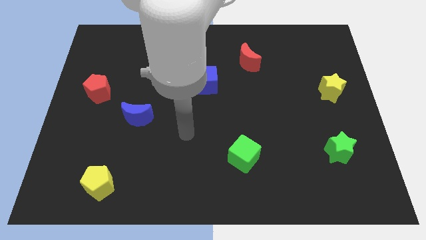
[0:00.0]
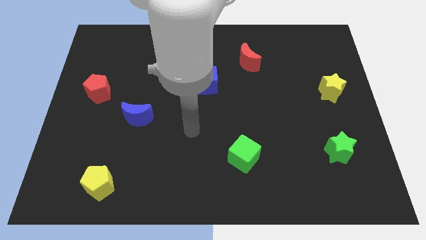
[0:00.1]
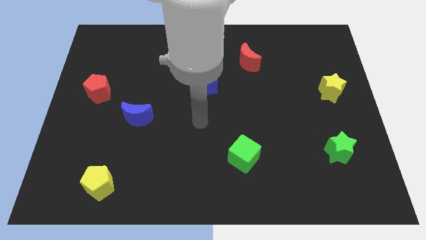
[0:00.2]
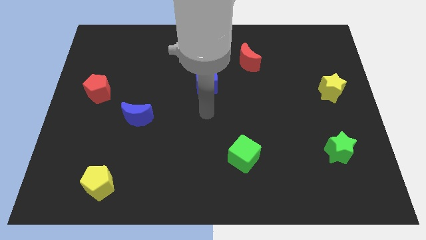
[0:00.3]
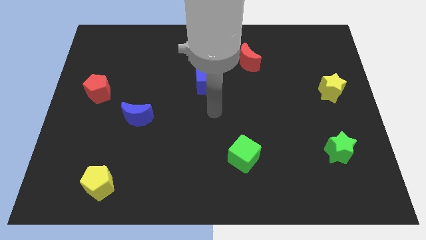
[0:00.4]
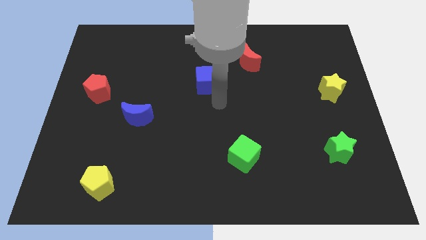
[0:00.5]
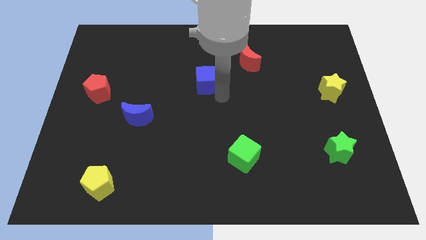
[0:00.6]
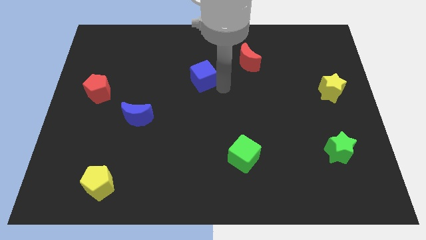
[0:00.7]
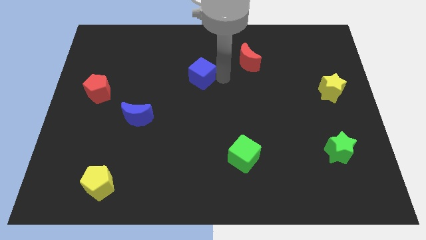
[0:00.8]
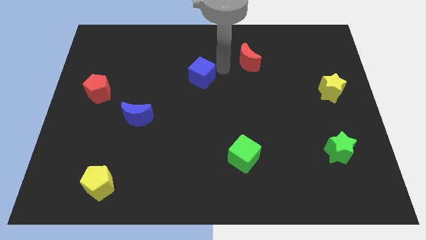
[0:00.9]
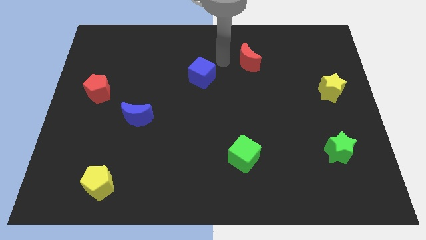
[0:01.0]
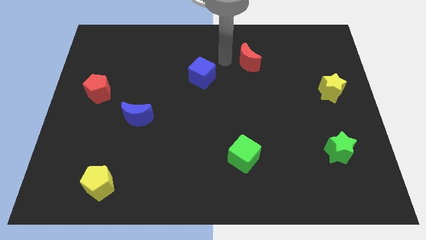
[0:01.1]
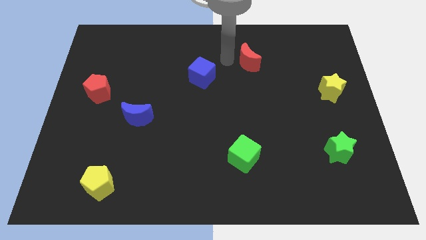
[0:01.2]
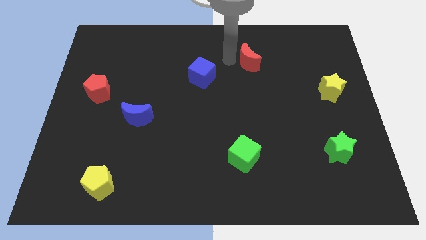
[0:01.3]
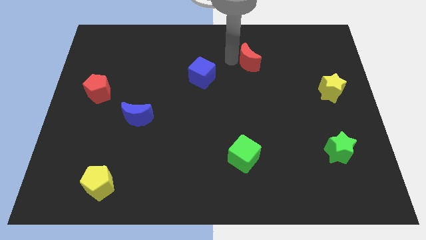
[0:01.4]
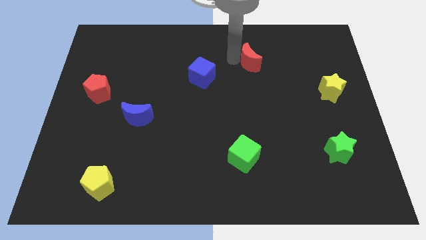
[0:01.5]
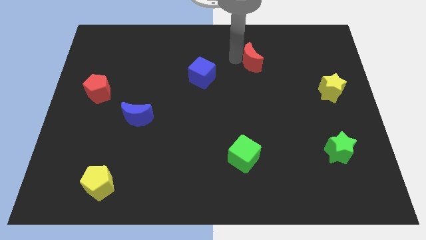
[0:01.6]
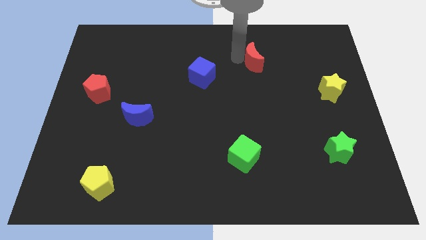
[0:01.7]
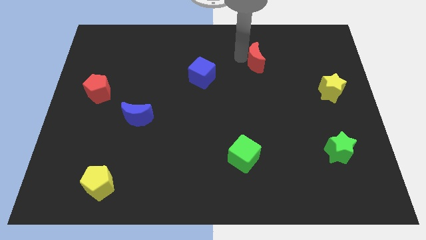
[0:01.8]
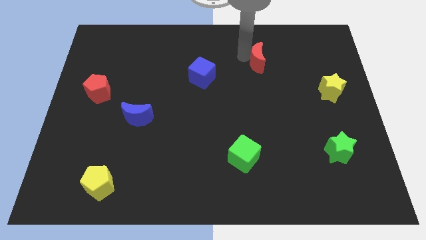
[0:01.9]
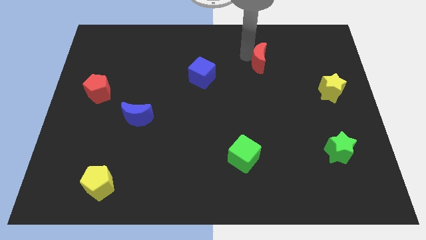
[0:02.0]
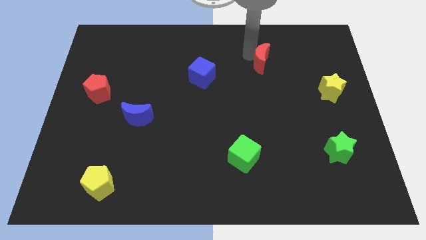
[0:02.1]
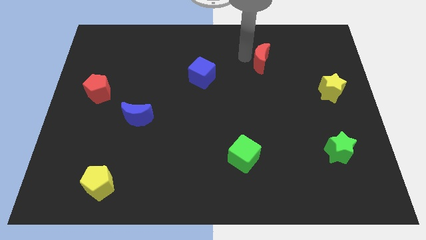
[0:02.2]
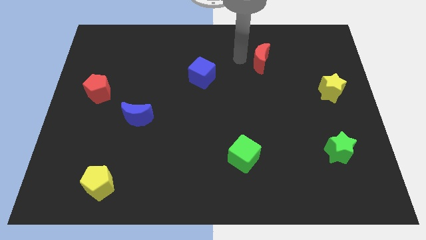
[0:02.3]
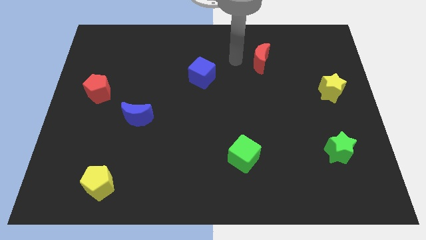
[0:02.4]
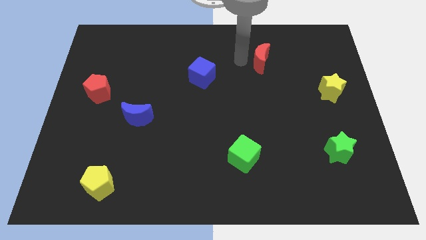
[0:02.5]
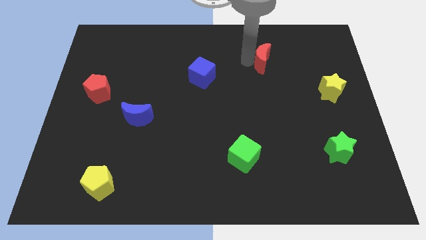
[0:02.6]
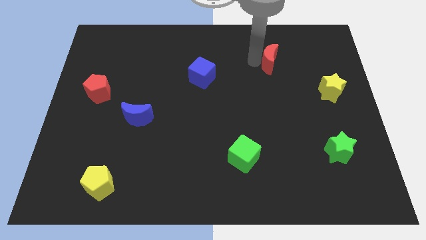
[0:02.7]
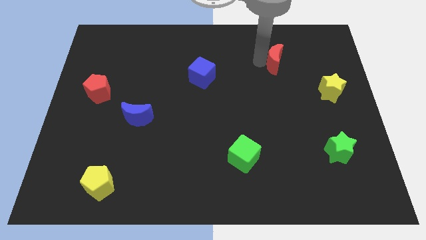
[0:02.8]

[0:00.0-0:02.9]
slide the red moon a bit to the right

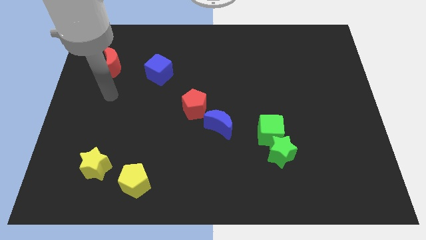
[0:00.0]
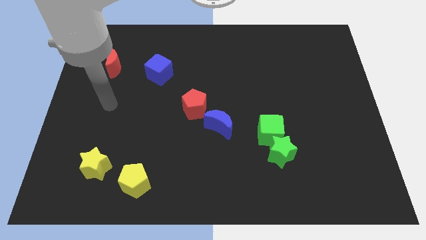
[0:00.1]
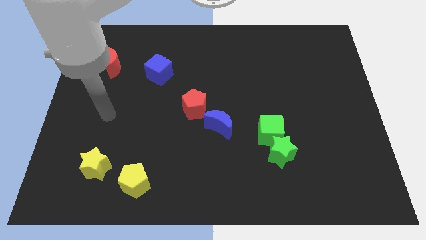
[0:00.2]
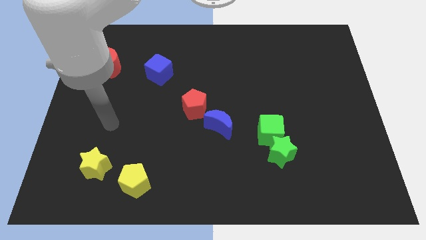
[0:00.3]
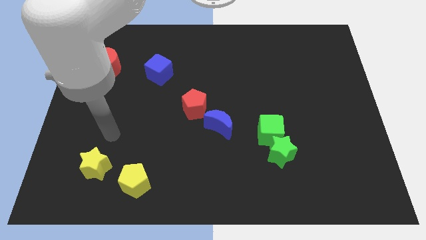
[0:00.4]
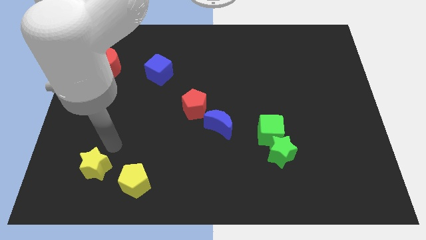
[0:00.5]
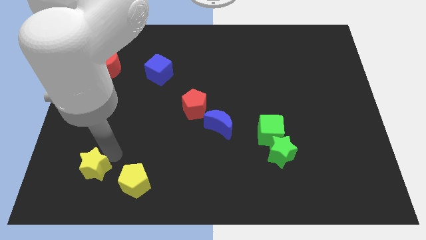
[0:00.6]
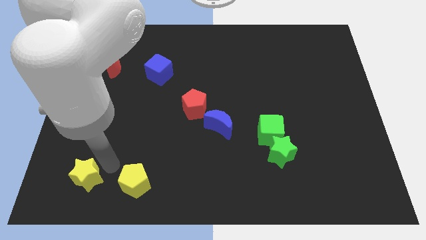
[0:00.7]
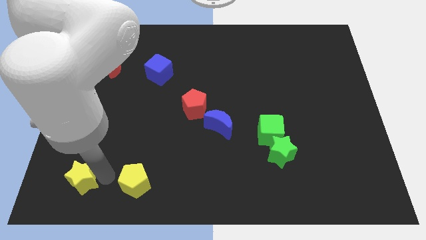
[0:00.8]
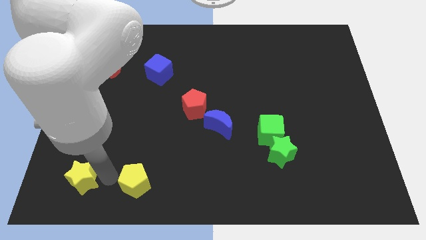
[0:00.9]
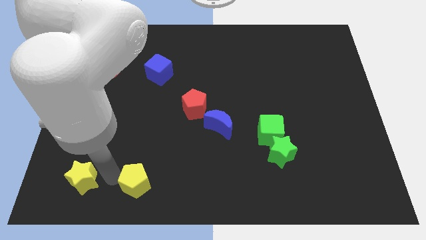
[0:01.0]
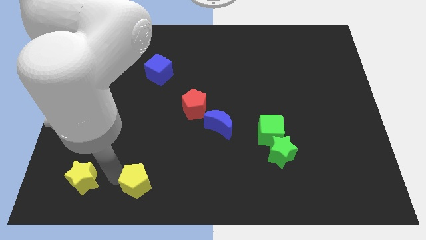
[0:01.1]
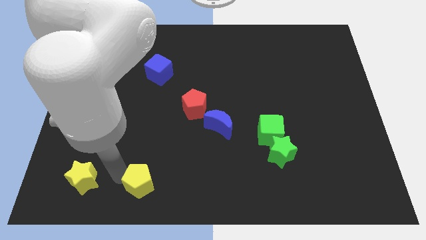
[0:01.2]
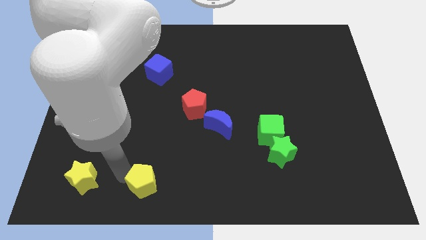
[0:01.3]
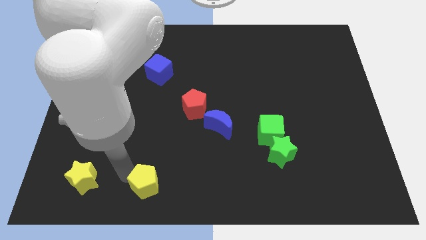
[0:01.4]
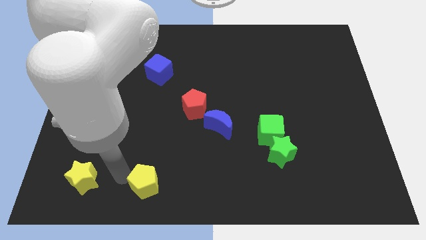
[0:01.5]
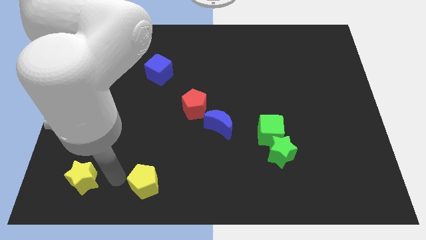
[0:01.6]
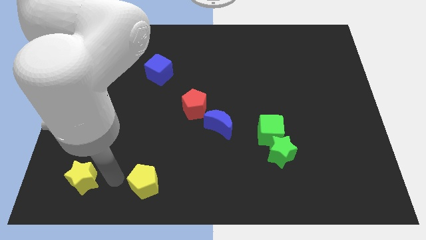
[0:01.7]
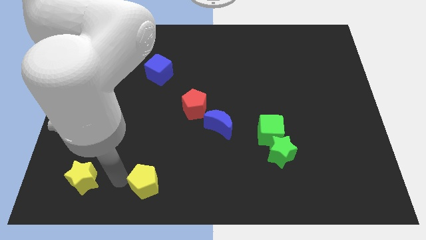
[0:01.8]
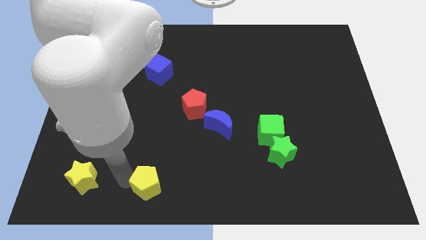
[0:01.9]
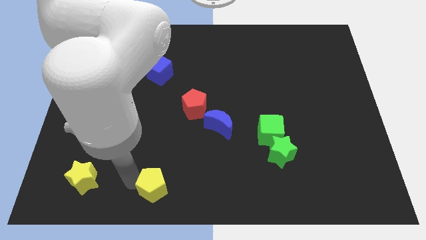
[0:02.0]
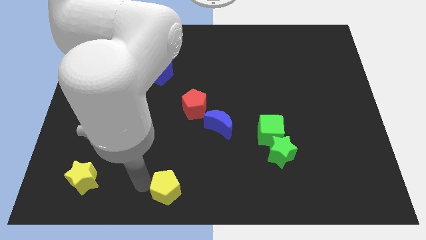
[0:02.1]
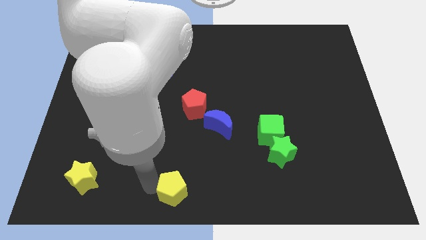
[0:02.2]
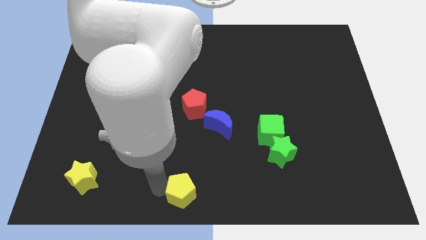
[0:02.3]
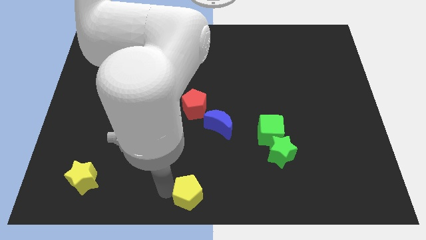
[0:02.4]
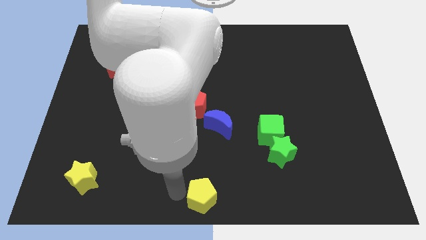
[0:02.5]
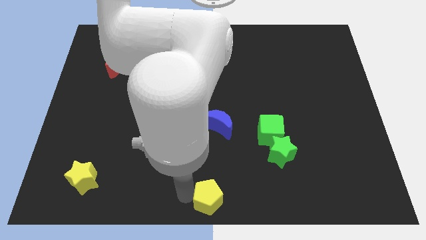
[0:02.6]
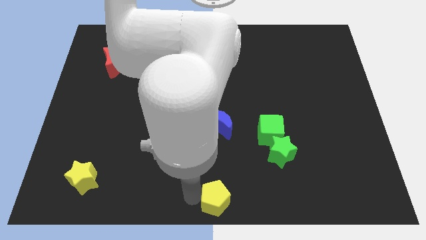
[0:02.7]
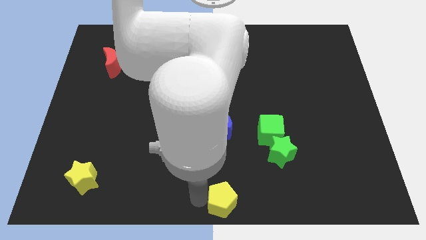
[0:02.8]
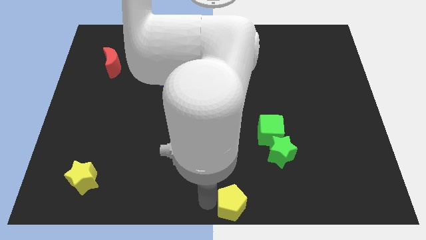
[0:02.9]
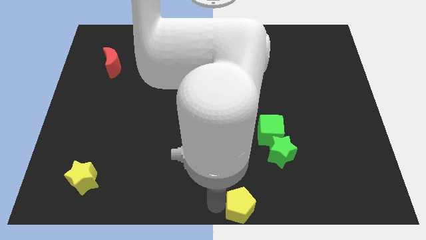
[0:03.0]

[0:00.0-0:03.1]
move the yellow pentagon to the right

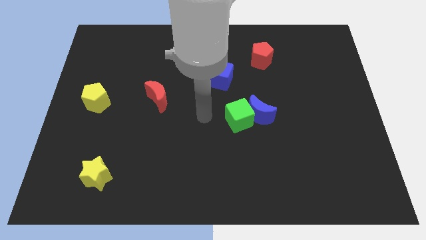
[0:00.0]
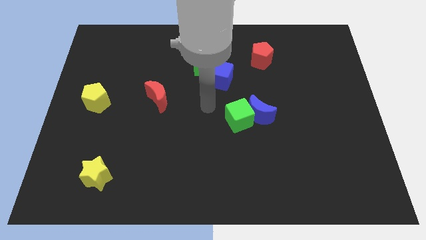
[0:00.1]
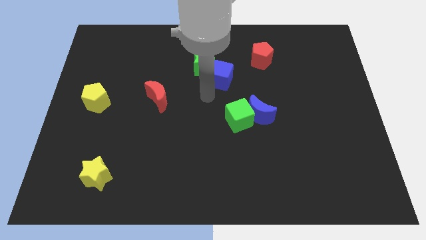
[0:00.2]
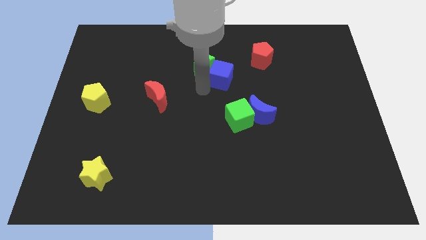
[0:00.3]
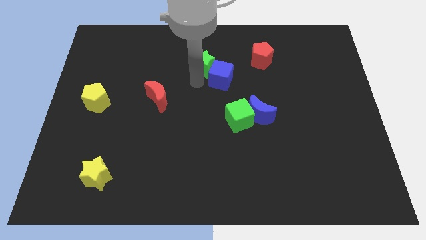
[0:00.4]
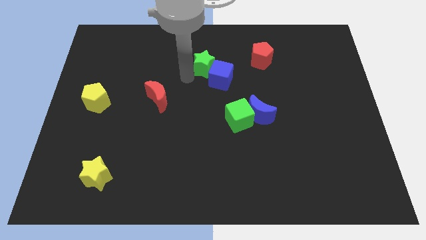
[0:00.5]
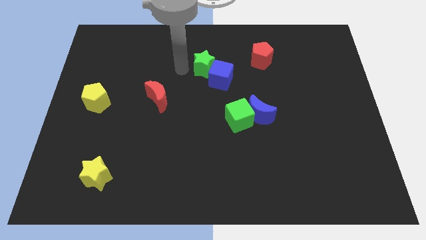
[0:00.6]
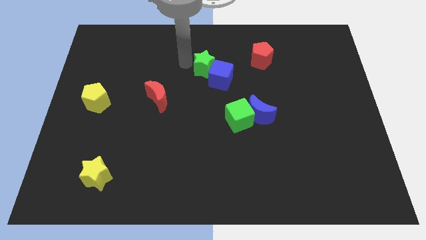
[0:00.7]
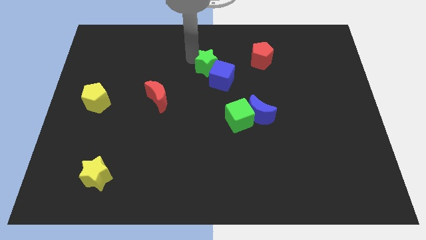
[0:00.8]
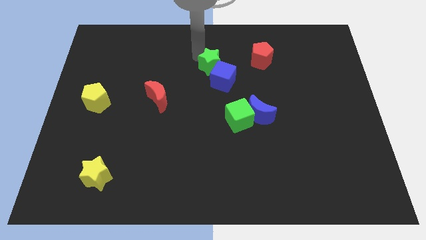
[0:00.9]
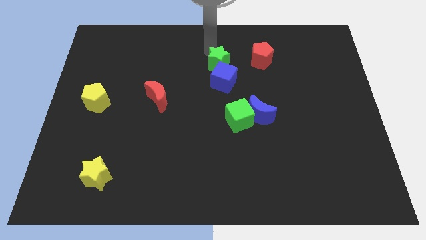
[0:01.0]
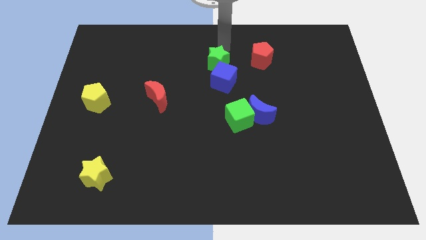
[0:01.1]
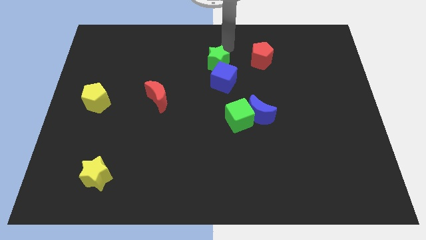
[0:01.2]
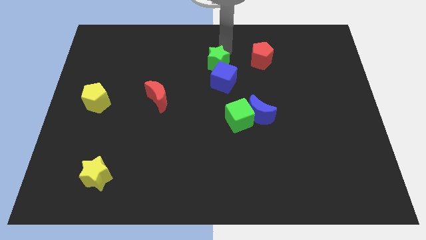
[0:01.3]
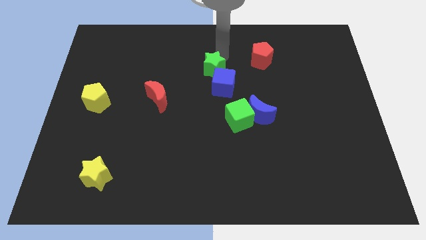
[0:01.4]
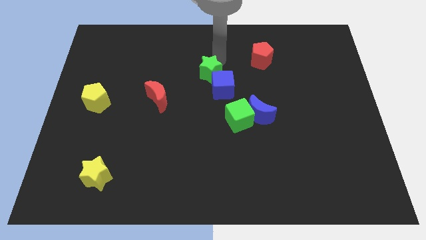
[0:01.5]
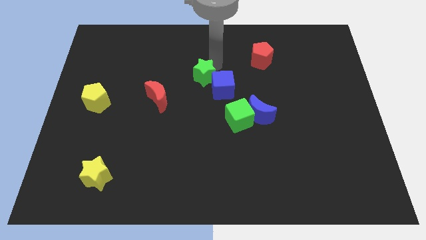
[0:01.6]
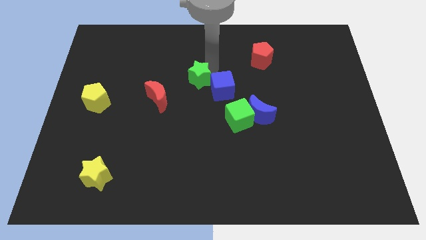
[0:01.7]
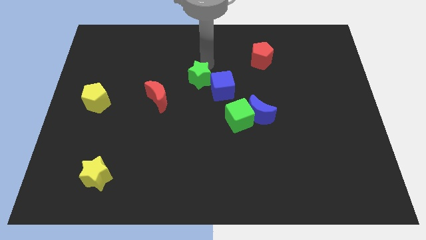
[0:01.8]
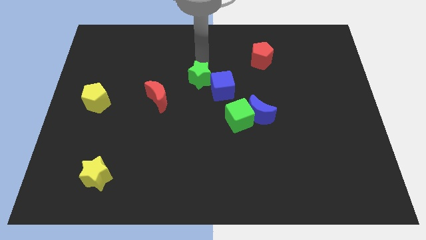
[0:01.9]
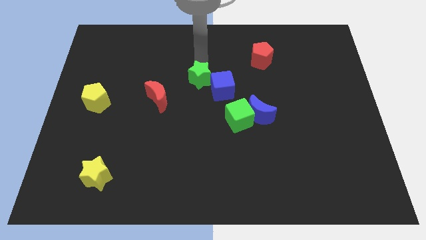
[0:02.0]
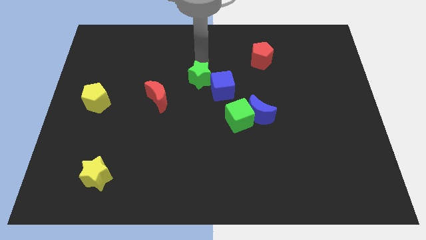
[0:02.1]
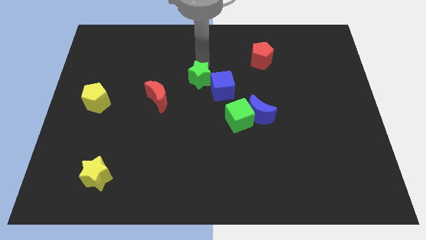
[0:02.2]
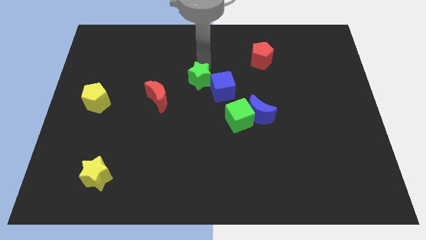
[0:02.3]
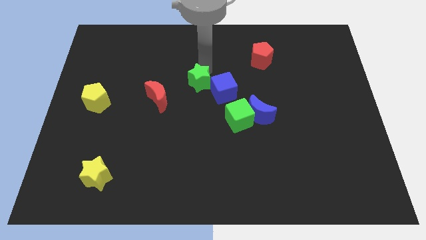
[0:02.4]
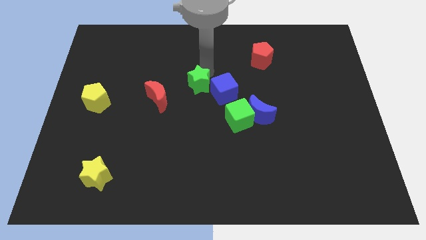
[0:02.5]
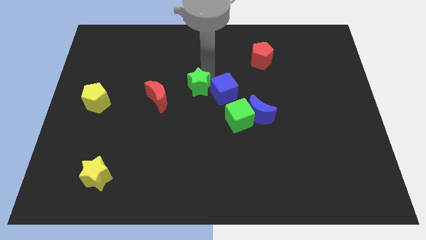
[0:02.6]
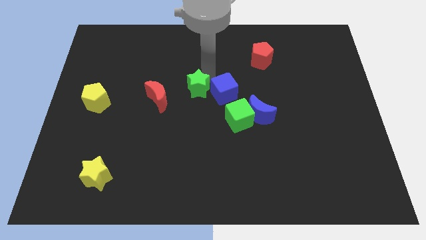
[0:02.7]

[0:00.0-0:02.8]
move the green star down a bit
